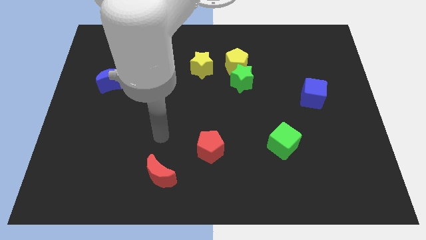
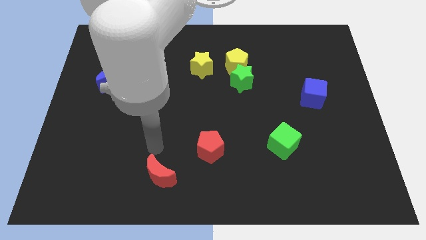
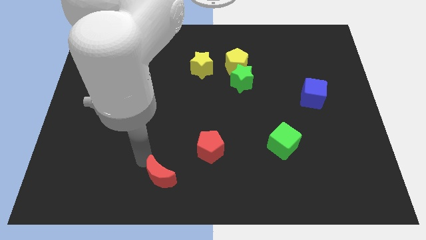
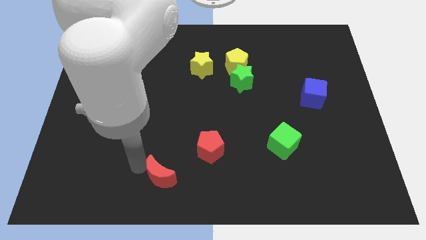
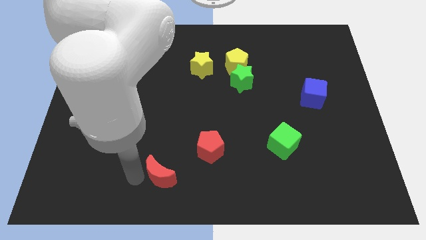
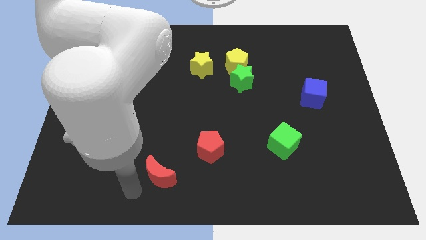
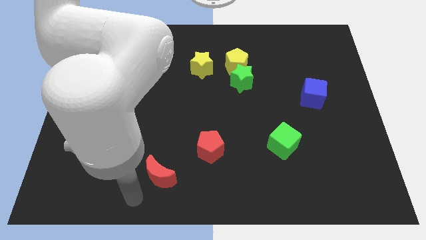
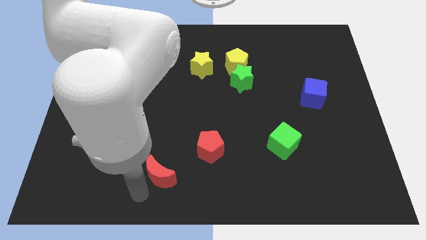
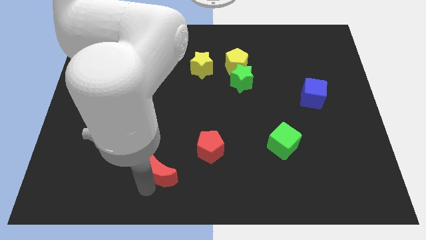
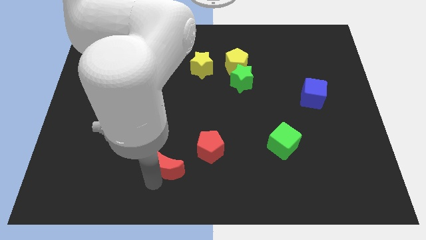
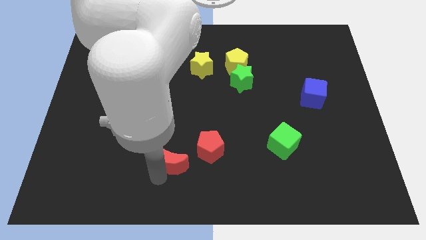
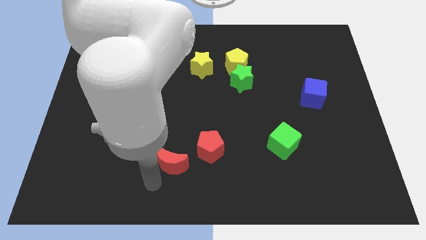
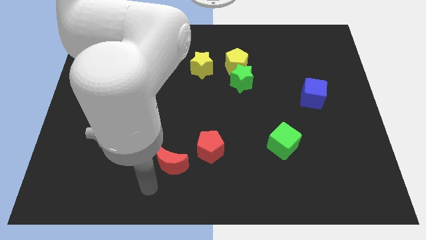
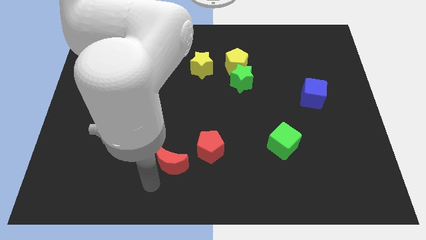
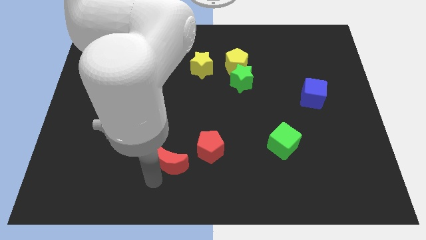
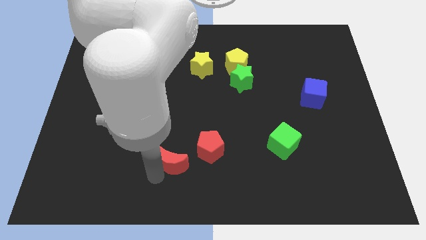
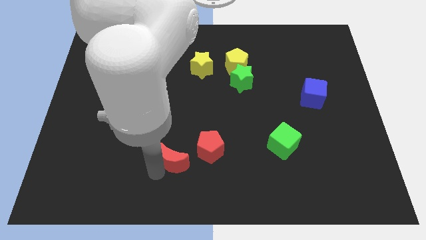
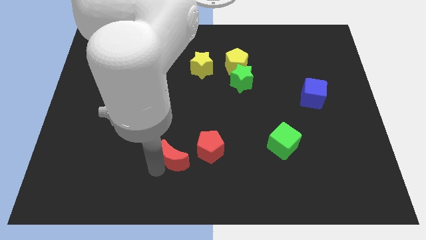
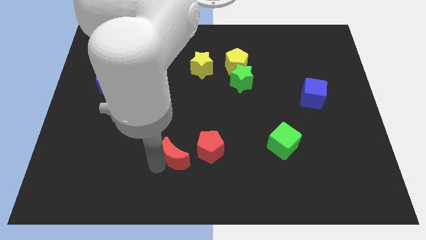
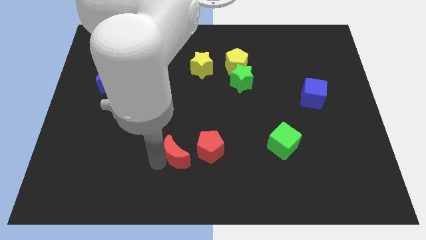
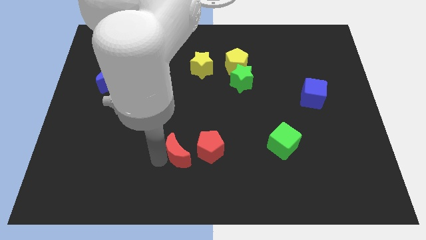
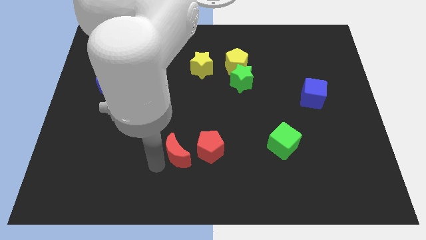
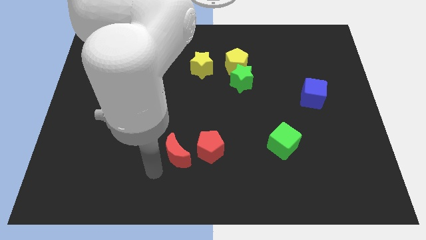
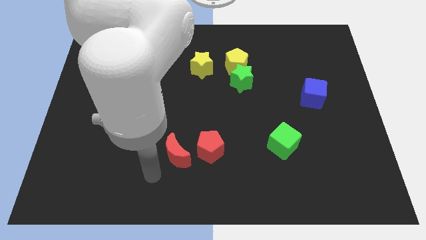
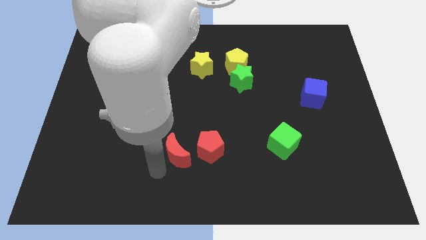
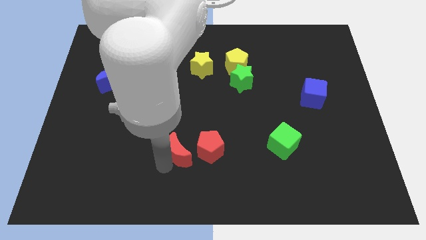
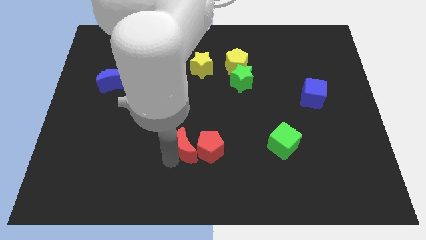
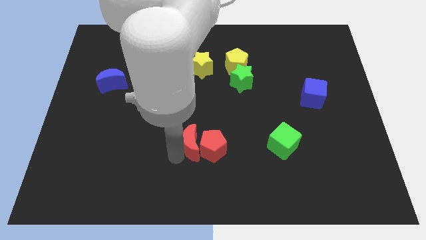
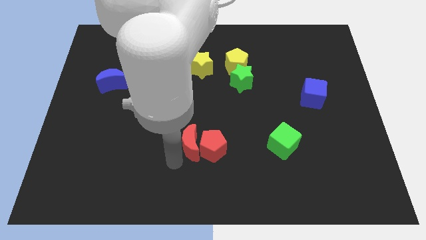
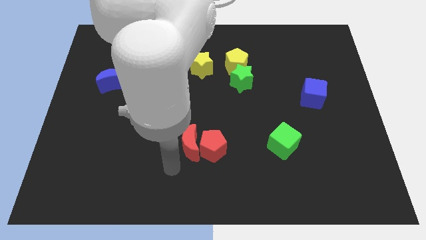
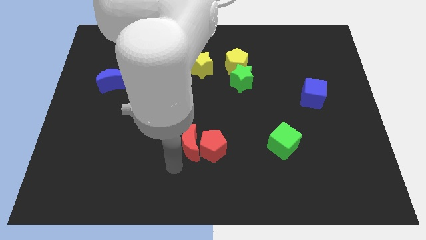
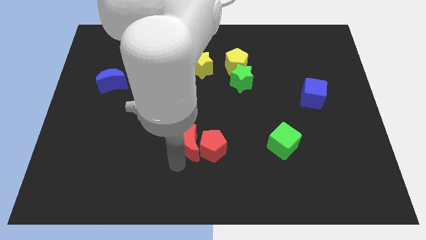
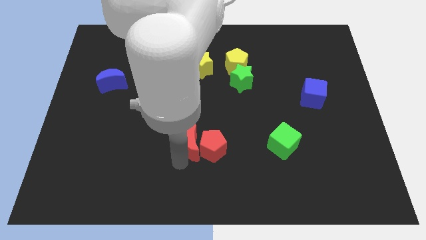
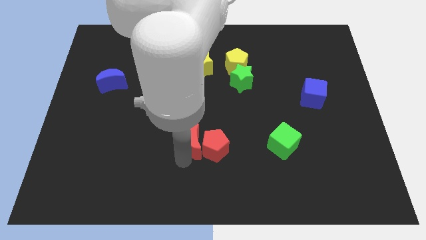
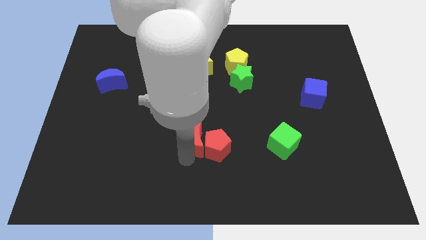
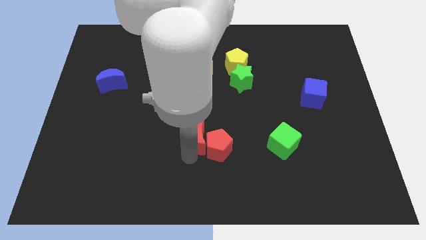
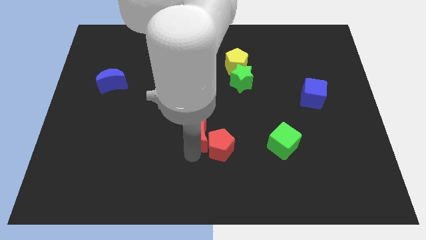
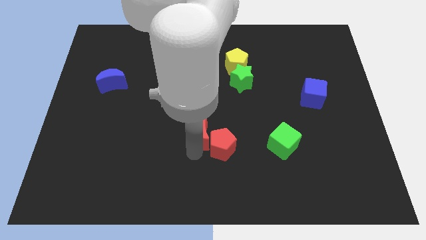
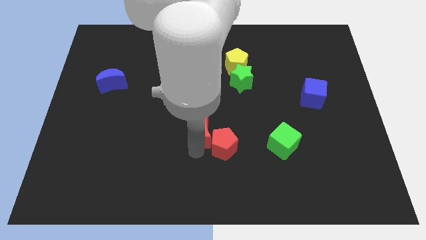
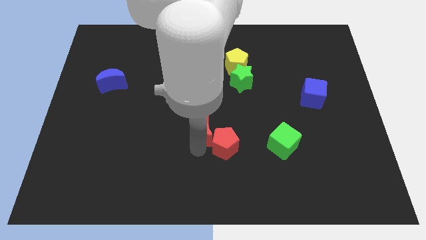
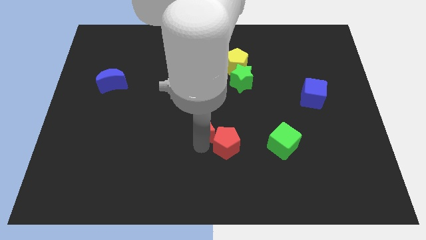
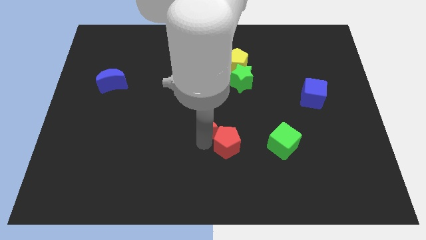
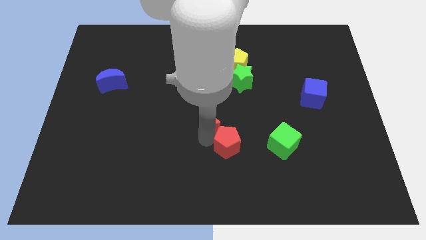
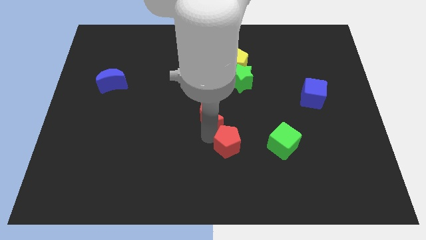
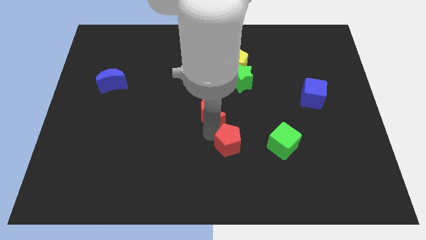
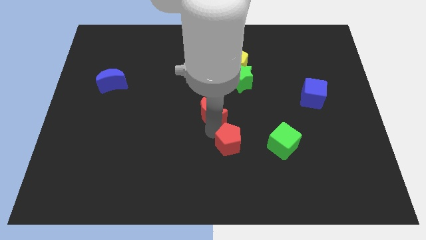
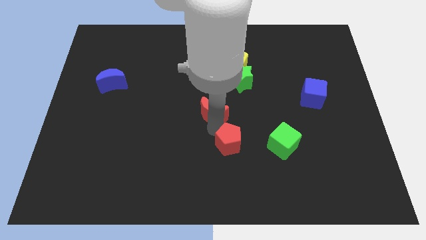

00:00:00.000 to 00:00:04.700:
put the red moon to the bottom left of the green star

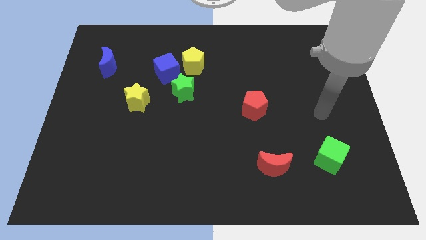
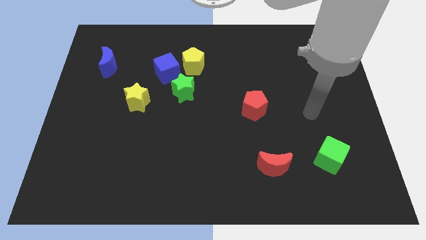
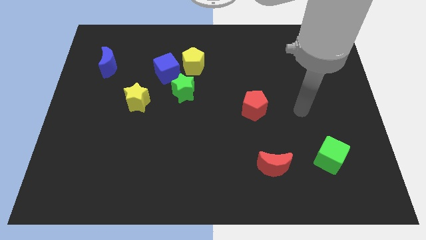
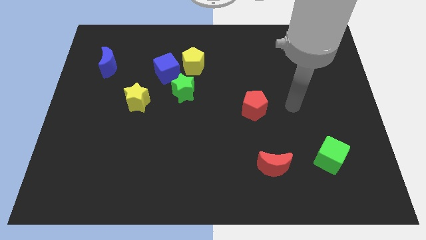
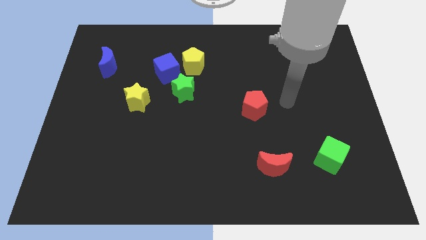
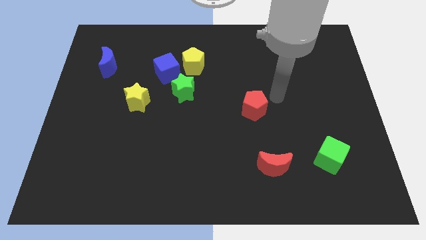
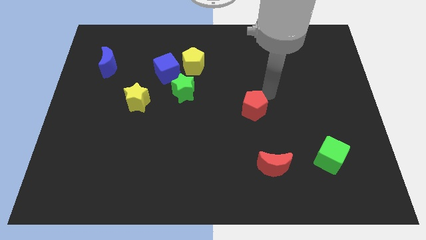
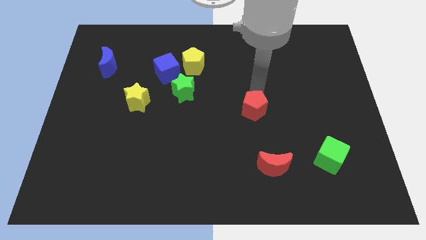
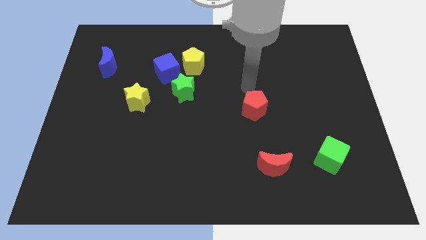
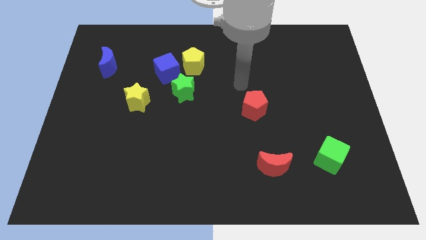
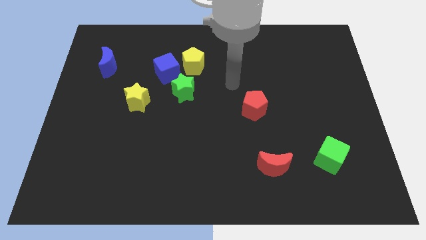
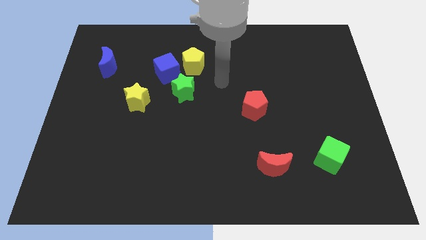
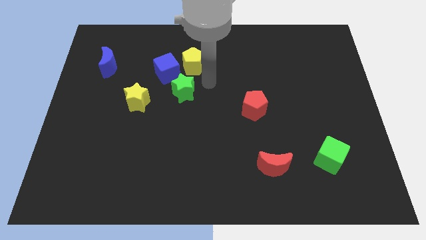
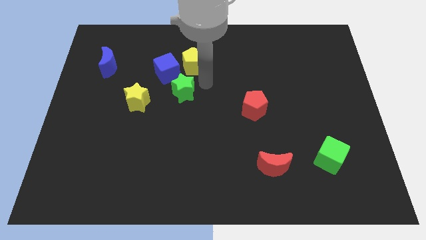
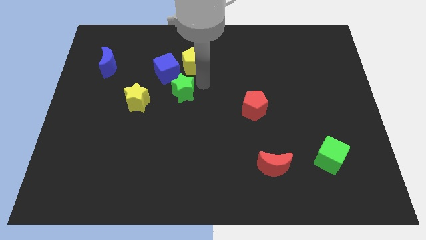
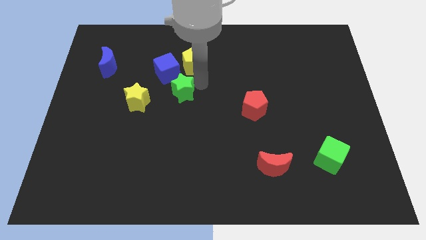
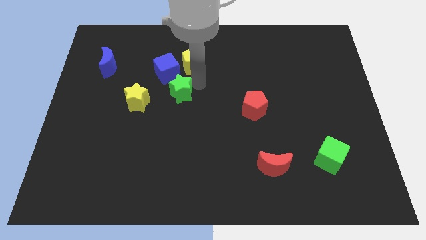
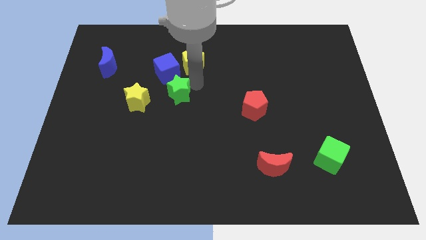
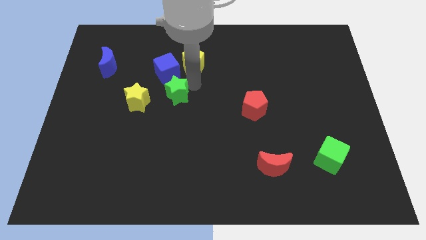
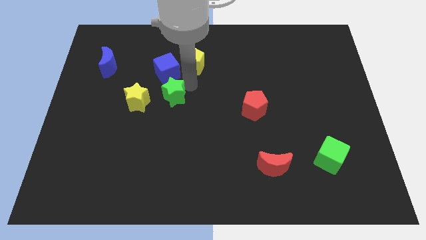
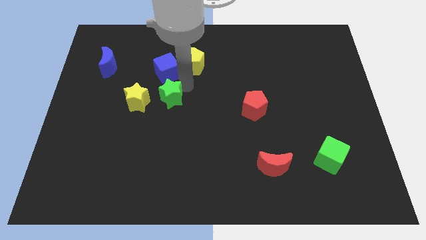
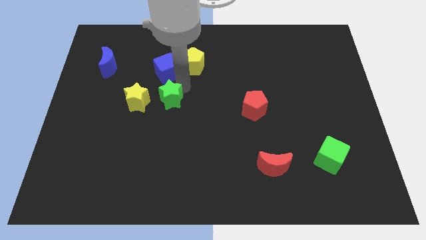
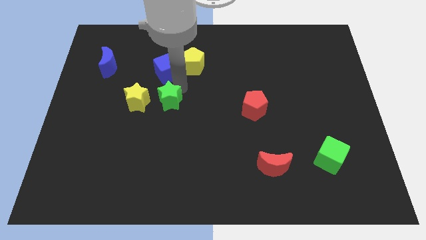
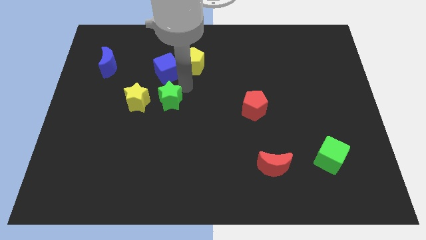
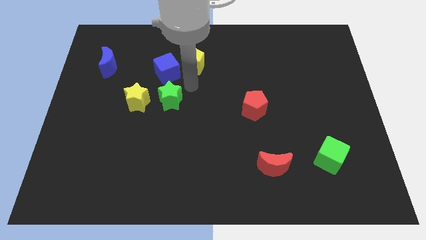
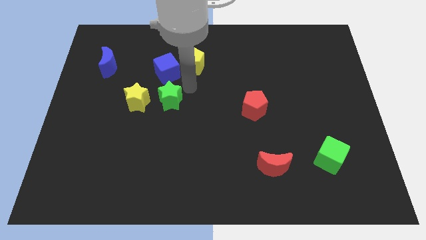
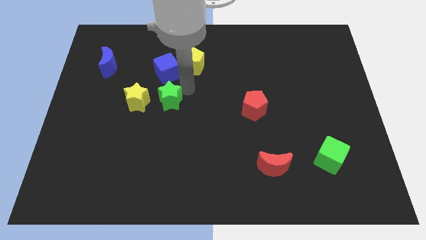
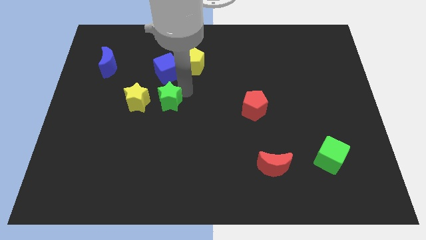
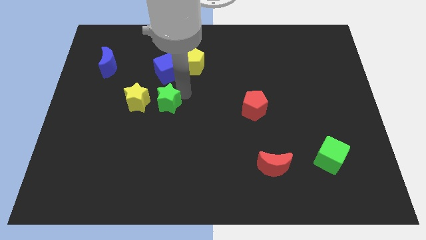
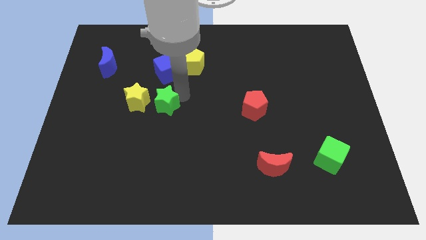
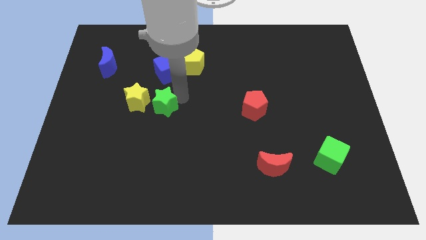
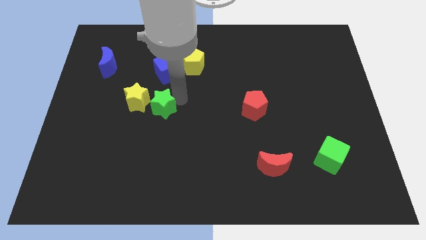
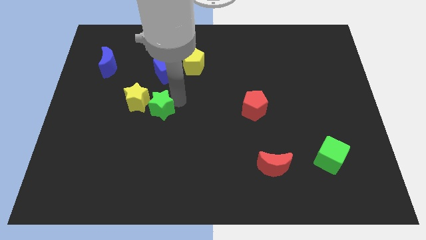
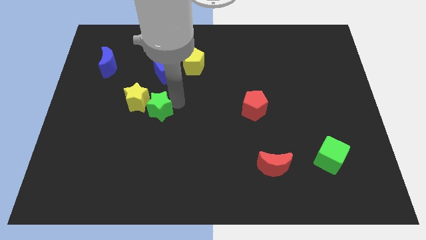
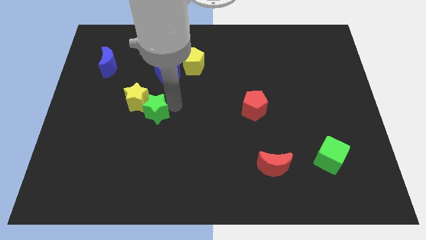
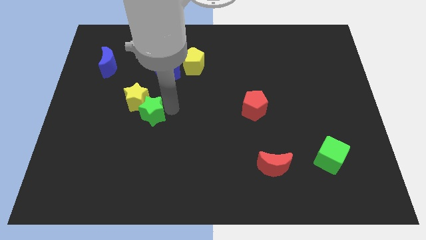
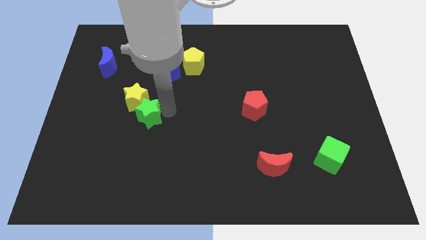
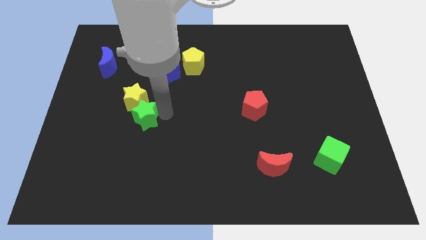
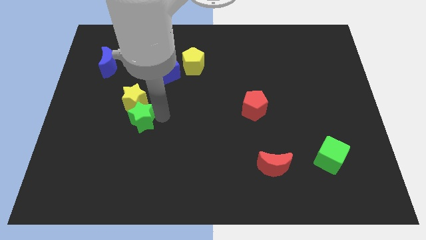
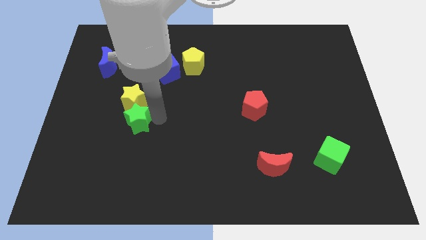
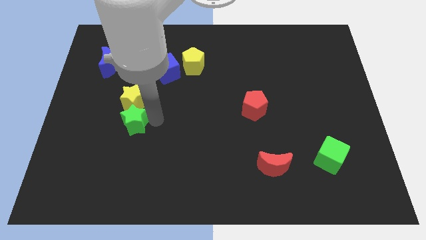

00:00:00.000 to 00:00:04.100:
put the green star to the bottom left side of the yellow star

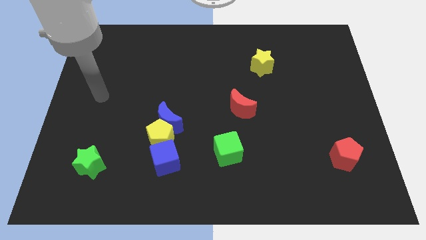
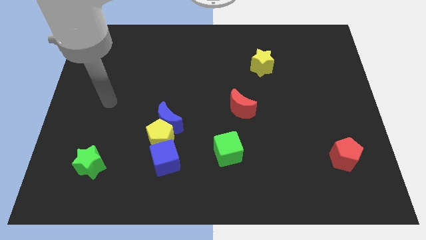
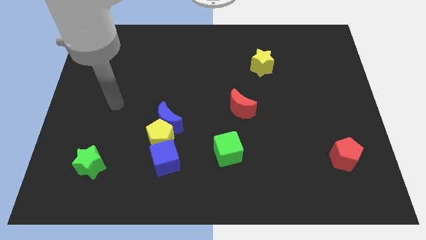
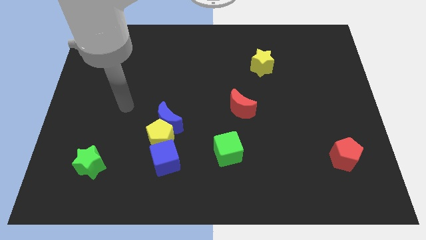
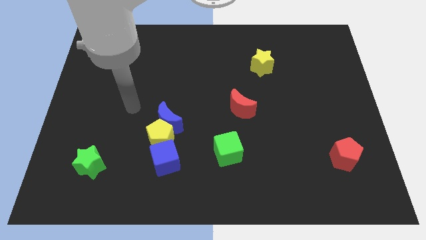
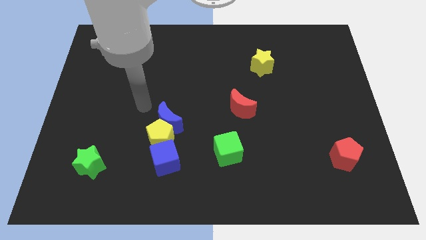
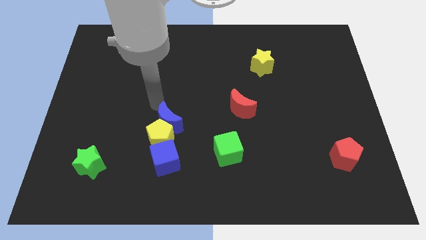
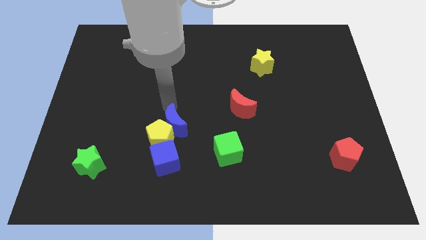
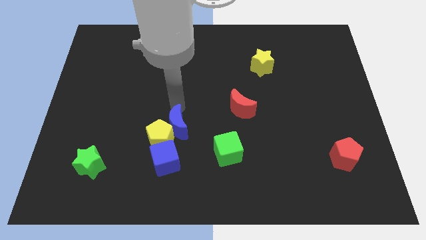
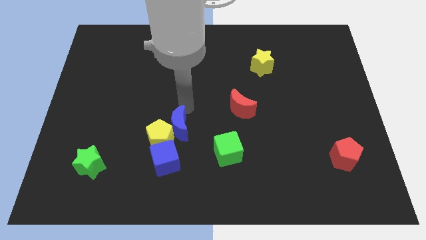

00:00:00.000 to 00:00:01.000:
push the green cube diagonally down and to the right of the blue moon
